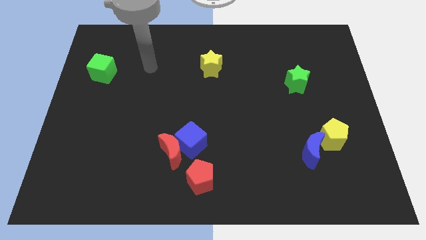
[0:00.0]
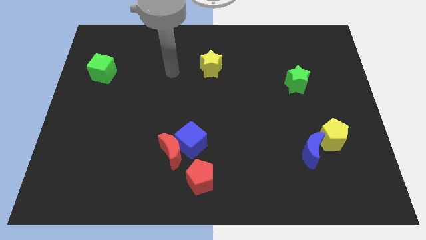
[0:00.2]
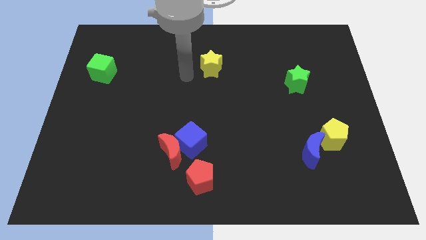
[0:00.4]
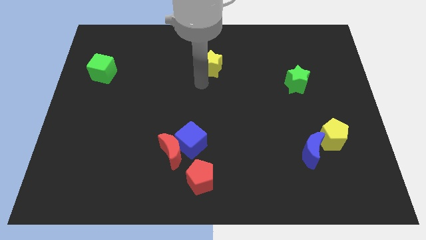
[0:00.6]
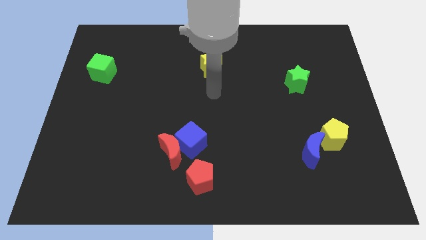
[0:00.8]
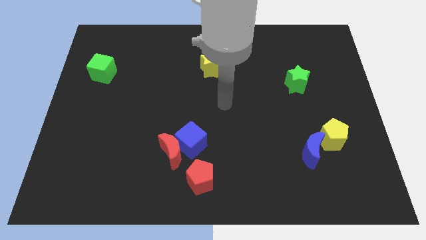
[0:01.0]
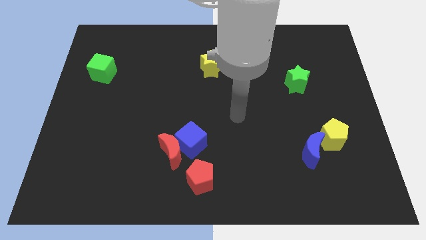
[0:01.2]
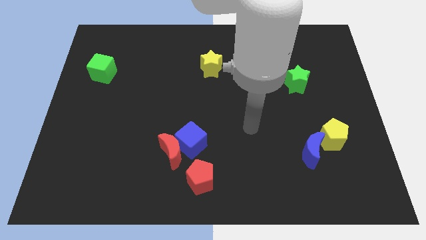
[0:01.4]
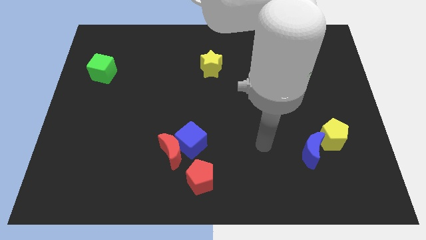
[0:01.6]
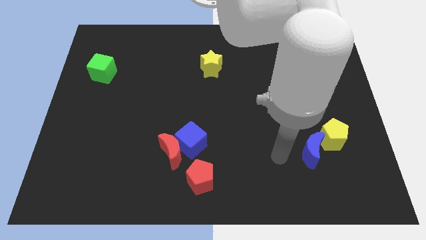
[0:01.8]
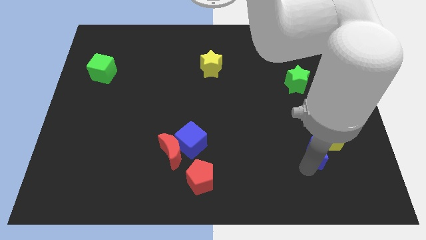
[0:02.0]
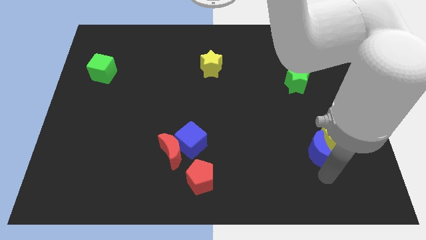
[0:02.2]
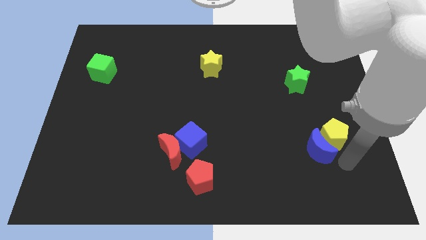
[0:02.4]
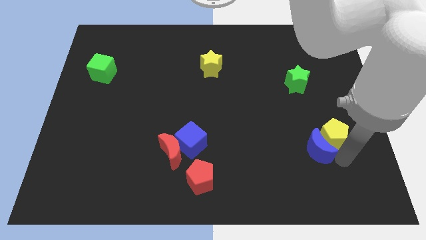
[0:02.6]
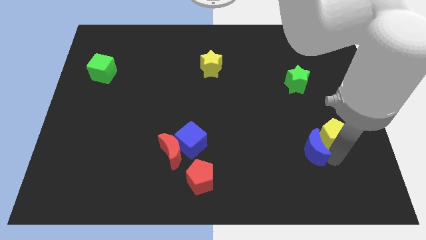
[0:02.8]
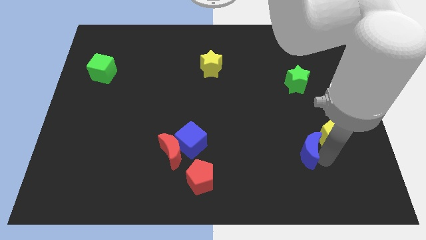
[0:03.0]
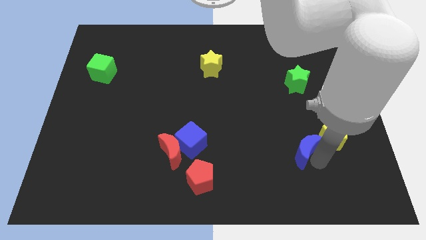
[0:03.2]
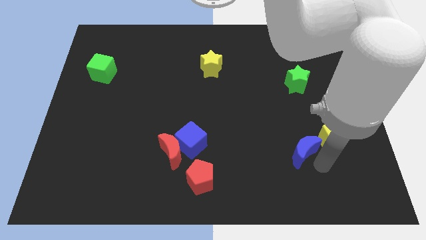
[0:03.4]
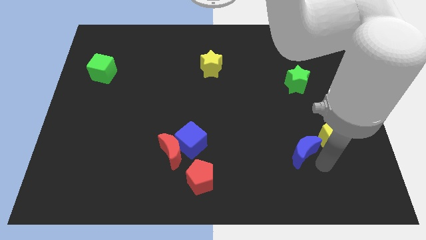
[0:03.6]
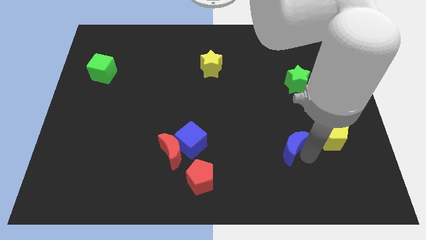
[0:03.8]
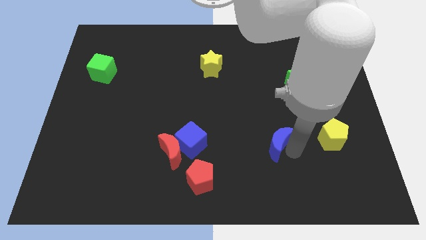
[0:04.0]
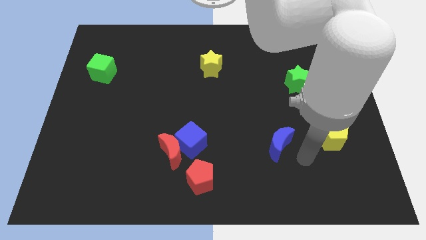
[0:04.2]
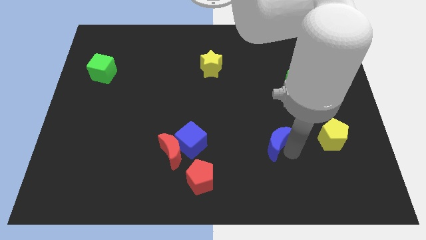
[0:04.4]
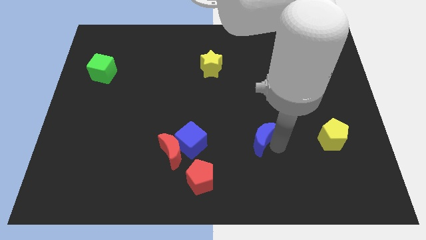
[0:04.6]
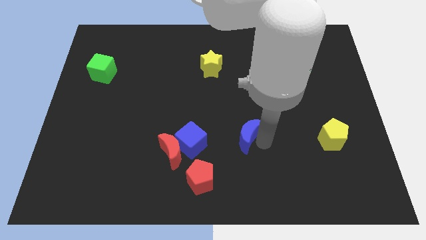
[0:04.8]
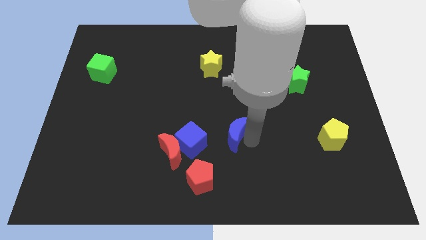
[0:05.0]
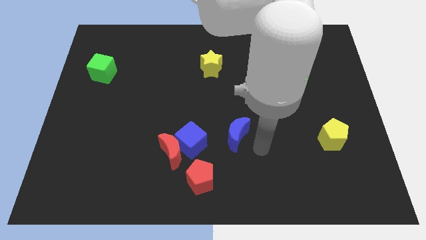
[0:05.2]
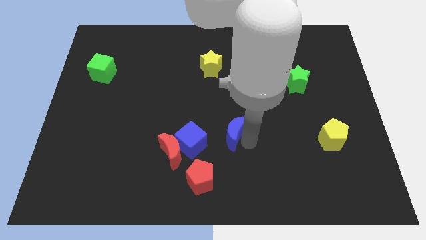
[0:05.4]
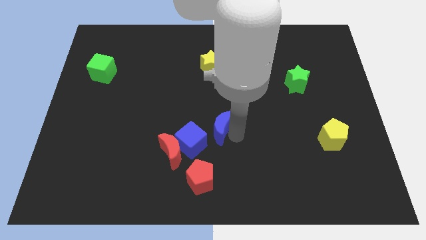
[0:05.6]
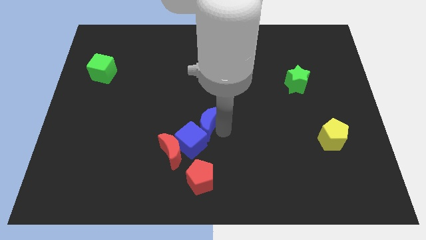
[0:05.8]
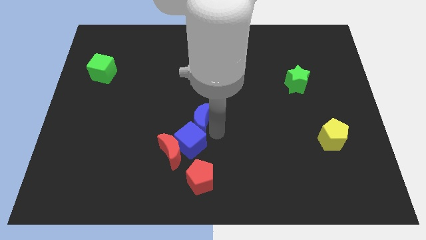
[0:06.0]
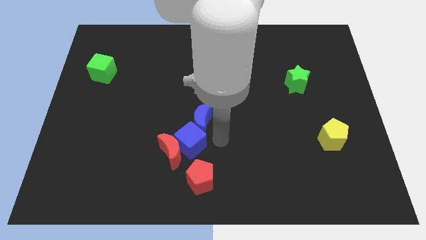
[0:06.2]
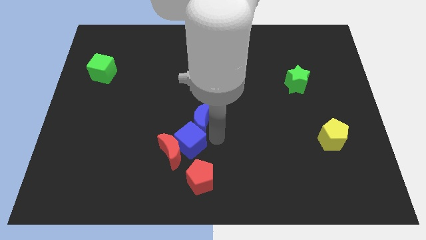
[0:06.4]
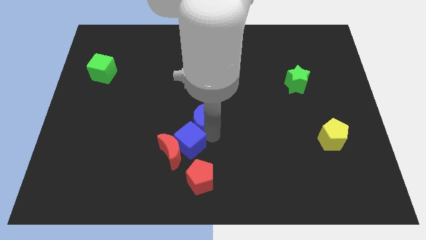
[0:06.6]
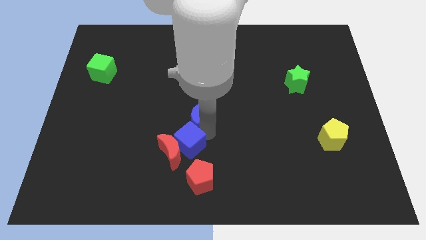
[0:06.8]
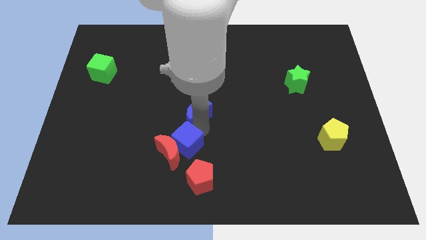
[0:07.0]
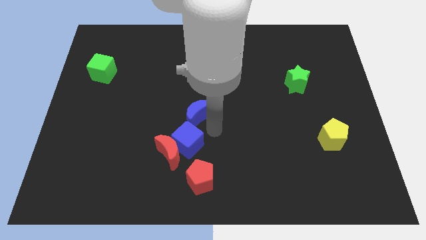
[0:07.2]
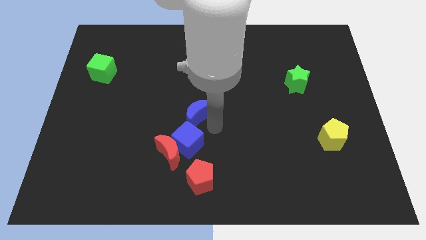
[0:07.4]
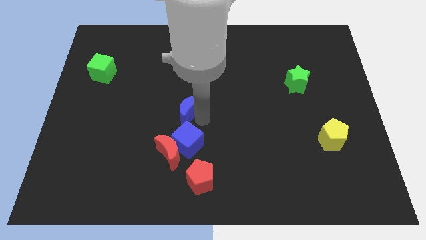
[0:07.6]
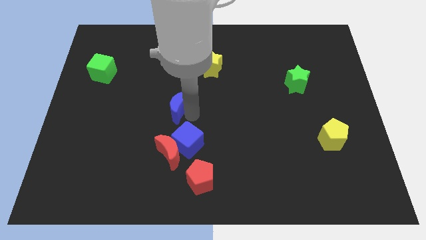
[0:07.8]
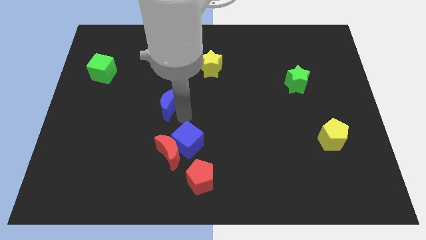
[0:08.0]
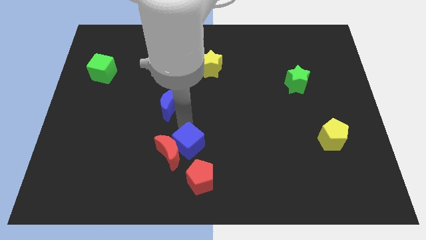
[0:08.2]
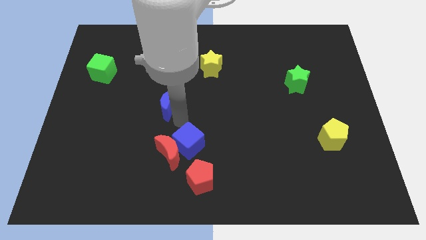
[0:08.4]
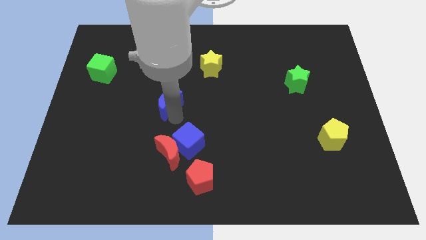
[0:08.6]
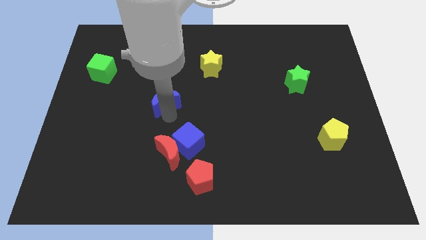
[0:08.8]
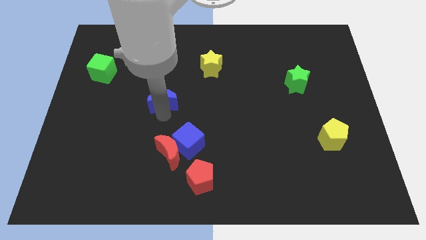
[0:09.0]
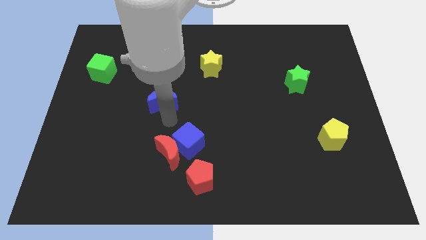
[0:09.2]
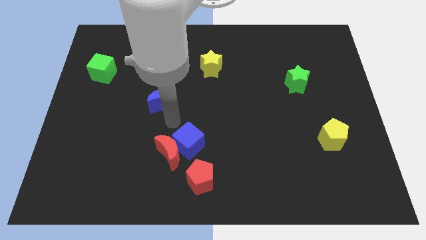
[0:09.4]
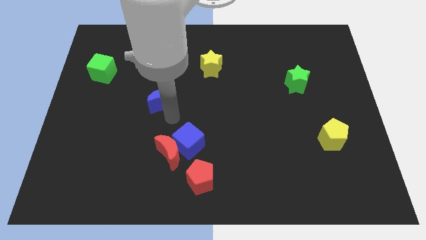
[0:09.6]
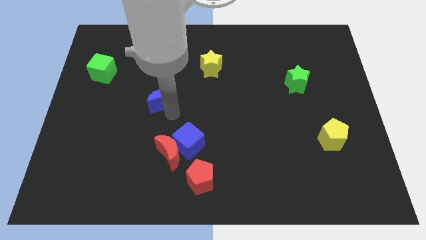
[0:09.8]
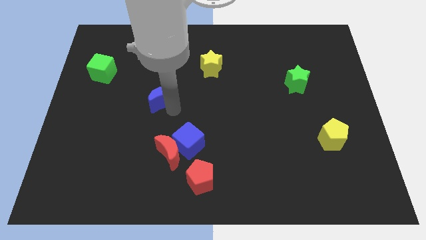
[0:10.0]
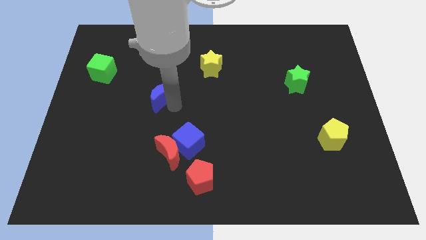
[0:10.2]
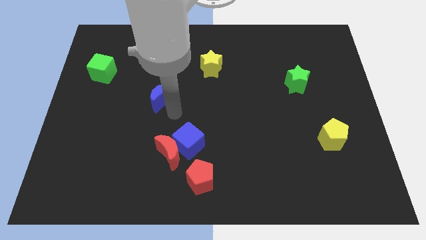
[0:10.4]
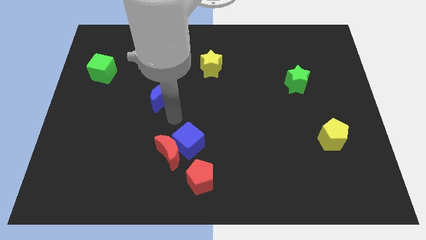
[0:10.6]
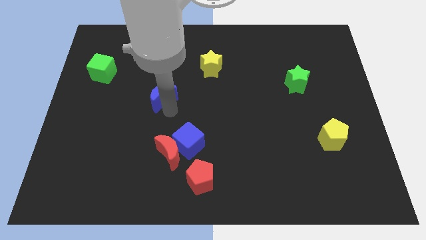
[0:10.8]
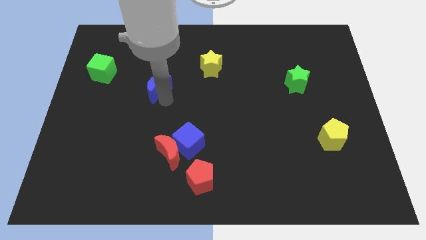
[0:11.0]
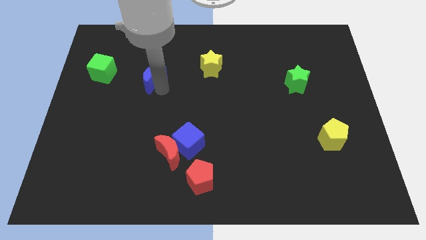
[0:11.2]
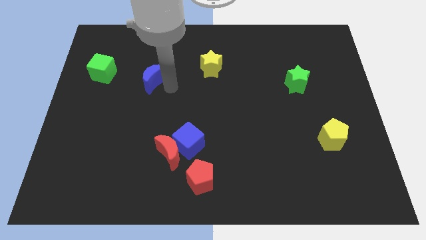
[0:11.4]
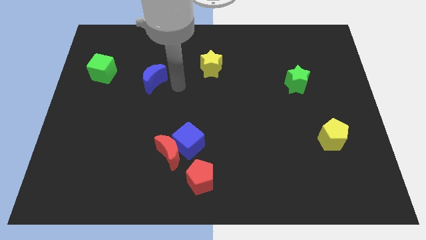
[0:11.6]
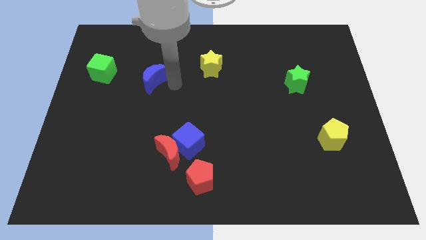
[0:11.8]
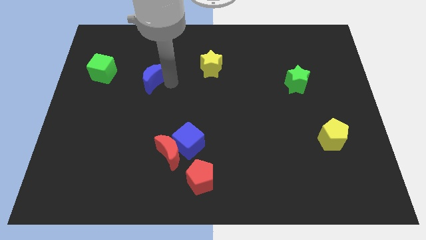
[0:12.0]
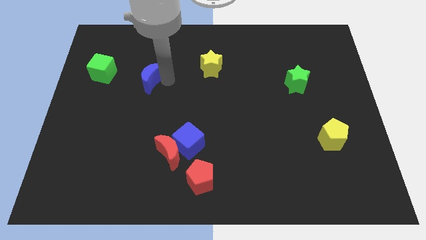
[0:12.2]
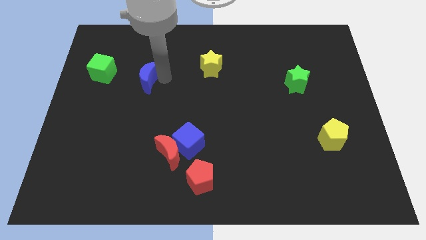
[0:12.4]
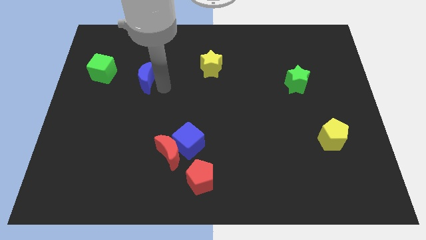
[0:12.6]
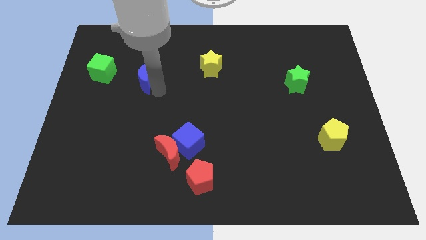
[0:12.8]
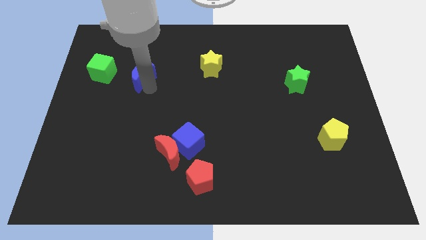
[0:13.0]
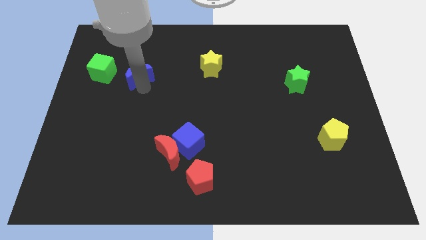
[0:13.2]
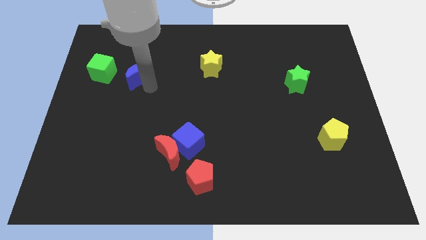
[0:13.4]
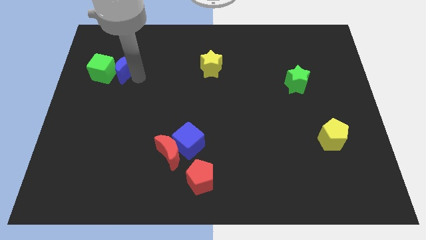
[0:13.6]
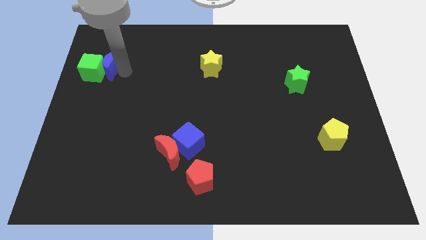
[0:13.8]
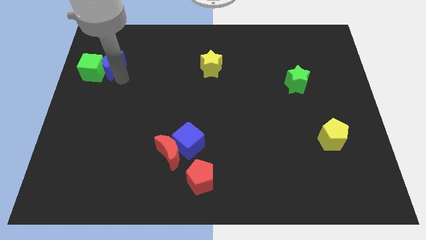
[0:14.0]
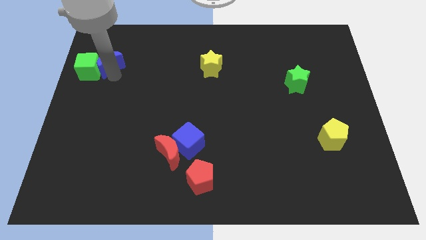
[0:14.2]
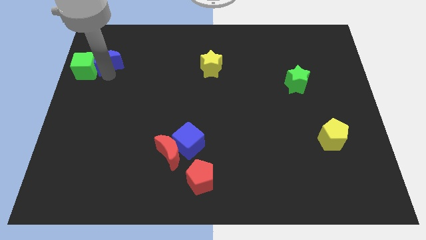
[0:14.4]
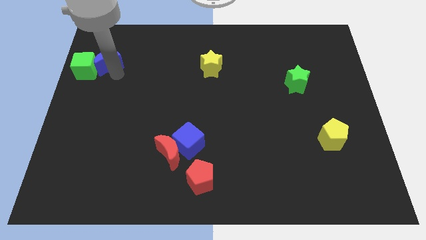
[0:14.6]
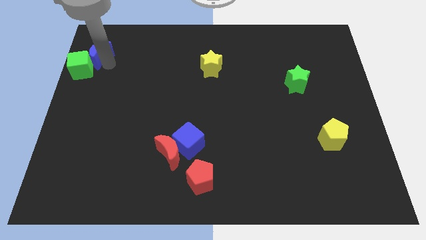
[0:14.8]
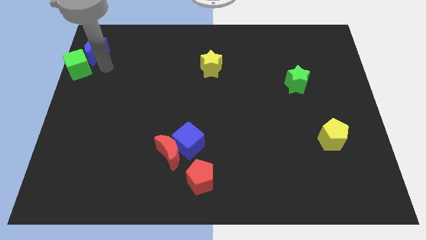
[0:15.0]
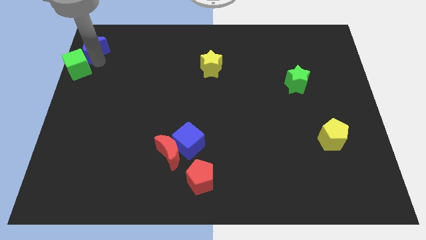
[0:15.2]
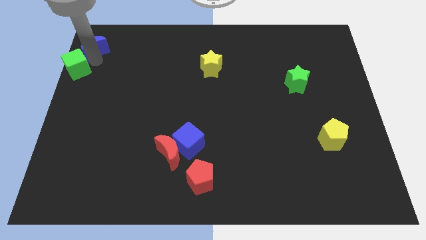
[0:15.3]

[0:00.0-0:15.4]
put the blue moon to the top left corner
